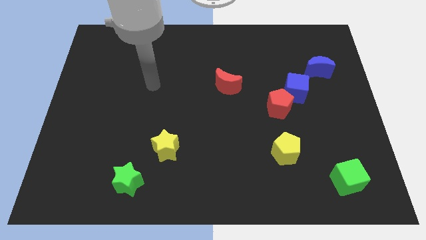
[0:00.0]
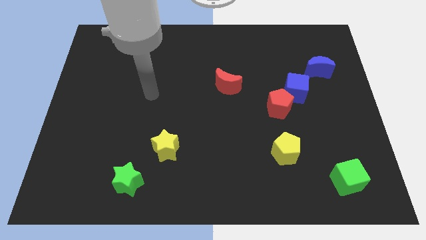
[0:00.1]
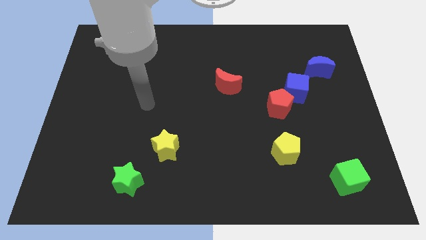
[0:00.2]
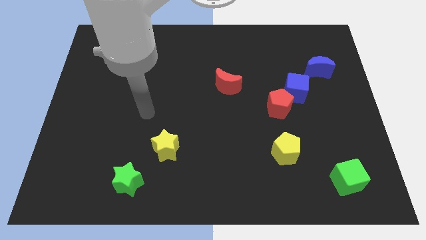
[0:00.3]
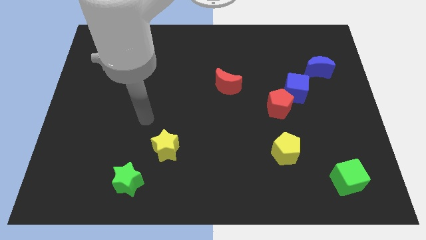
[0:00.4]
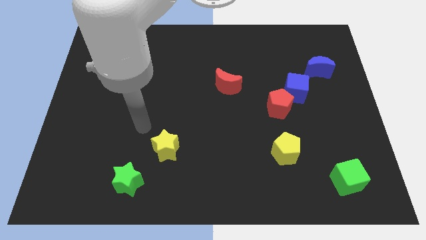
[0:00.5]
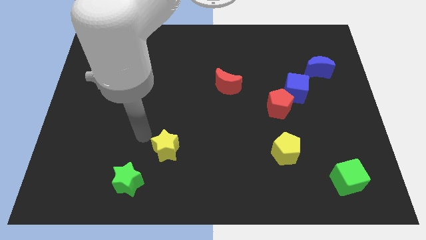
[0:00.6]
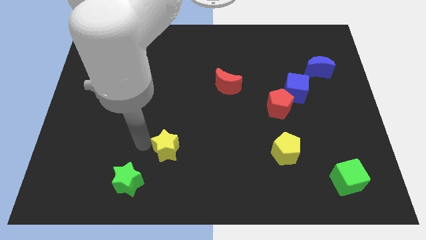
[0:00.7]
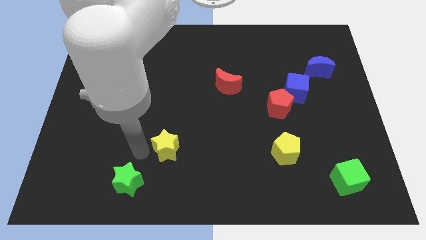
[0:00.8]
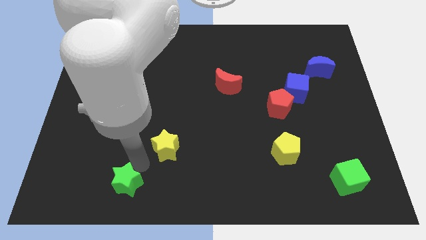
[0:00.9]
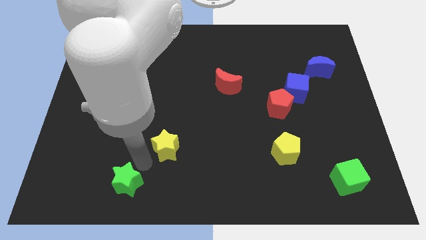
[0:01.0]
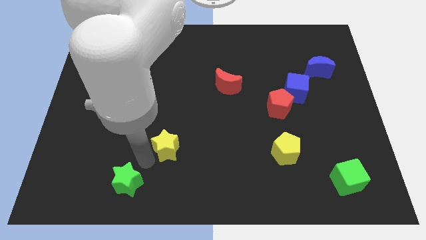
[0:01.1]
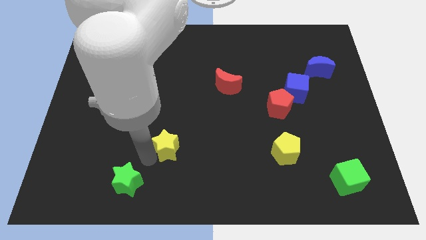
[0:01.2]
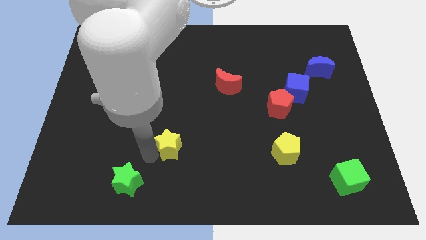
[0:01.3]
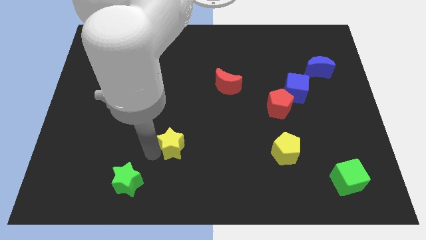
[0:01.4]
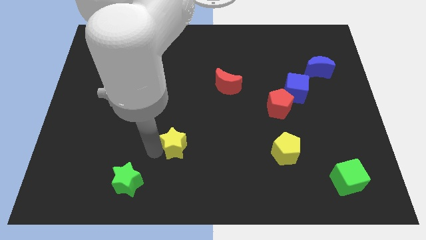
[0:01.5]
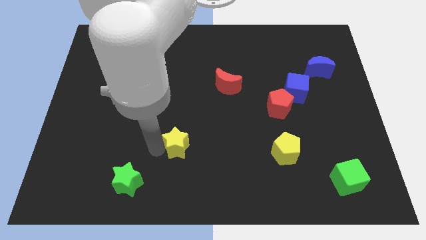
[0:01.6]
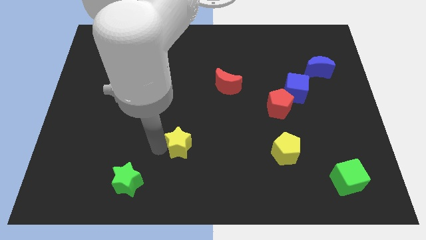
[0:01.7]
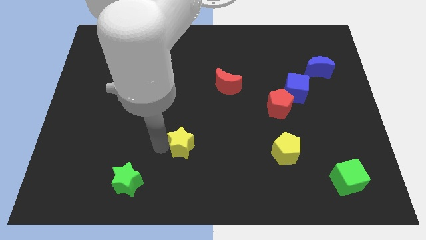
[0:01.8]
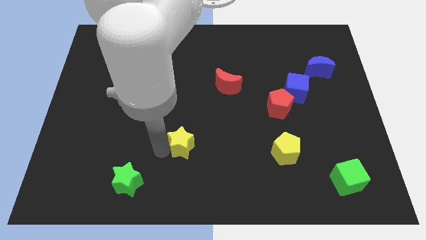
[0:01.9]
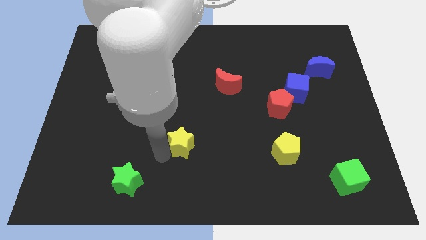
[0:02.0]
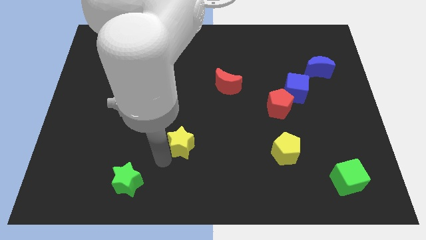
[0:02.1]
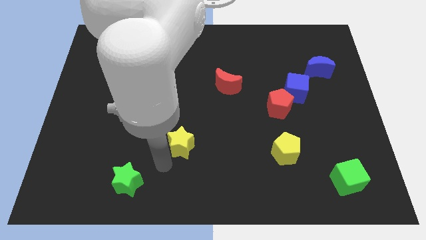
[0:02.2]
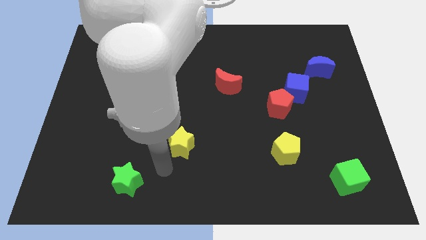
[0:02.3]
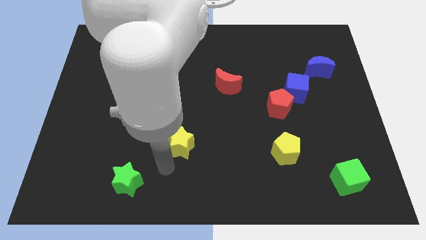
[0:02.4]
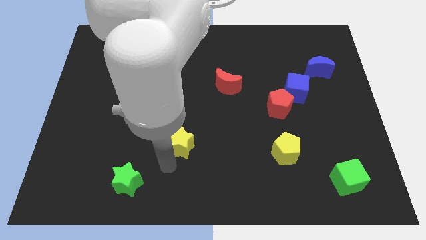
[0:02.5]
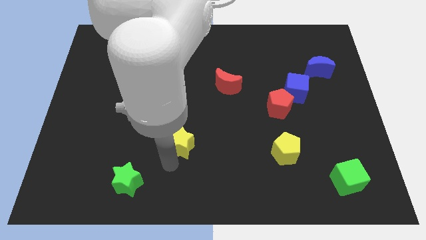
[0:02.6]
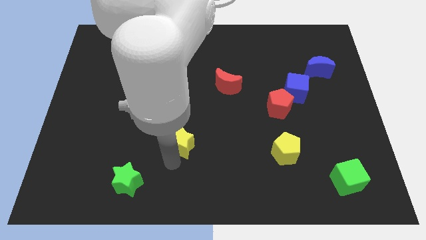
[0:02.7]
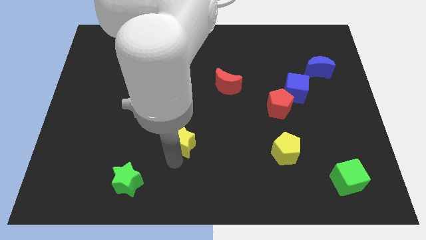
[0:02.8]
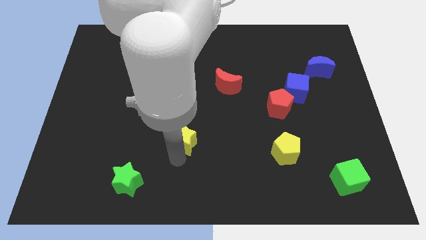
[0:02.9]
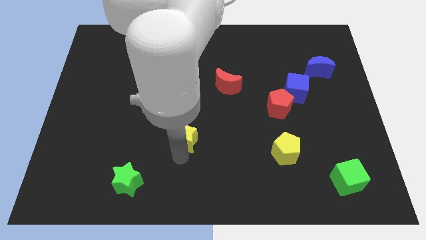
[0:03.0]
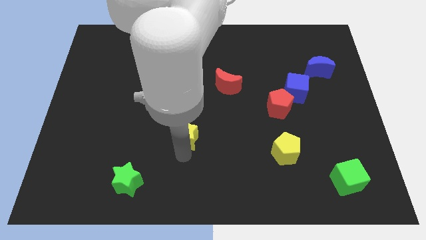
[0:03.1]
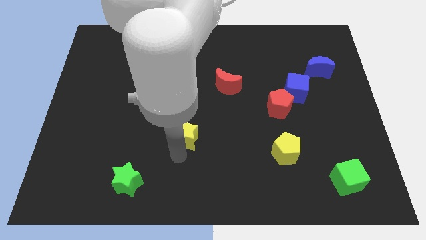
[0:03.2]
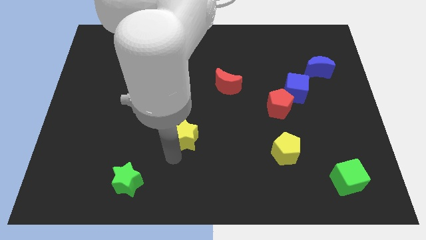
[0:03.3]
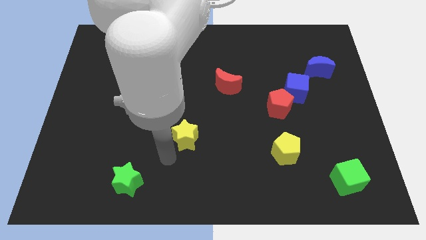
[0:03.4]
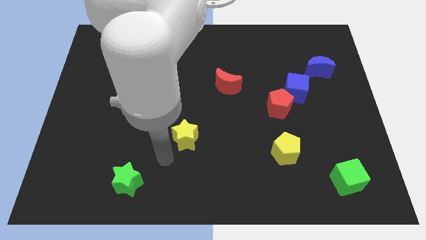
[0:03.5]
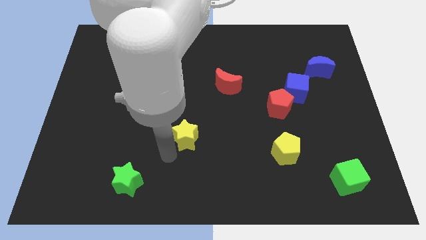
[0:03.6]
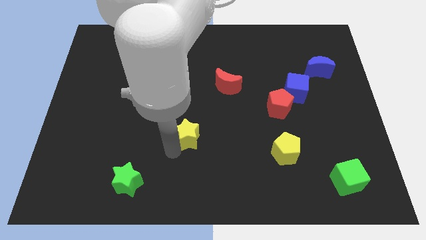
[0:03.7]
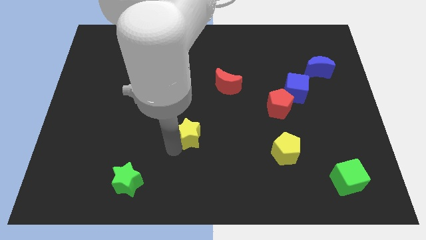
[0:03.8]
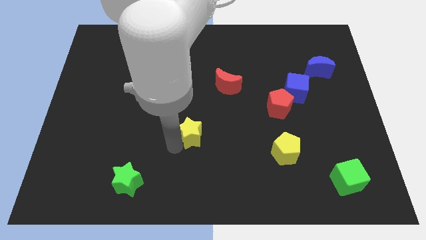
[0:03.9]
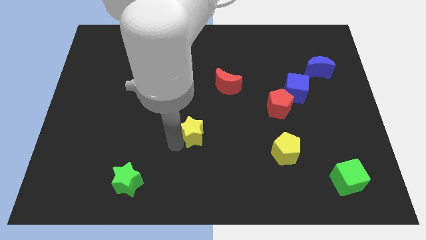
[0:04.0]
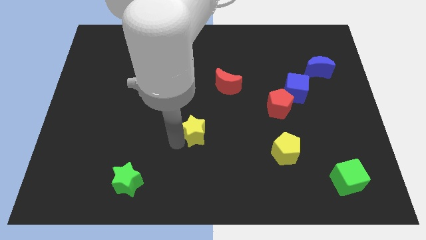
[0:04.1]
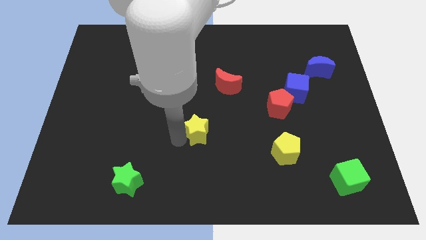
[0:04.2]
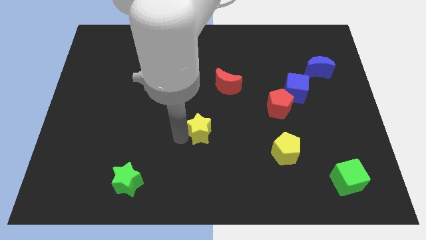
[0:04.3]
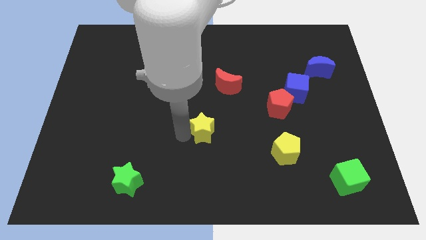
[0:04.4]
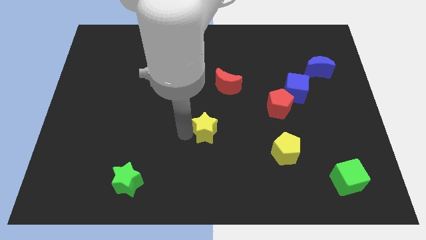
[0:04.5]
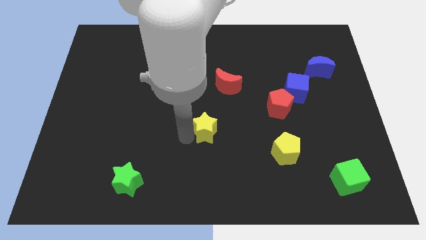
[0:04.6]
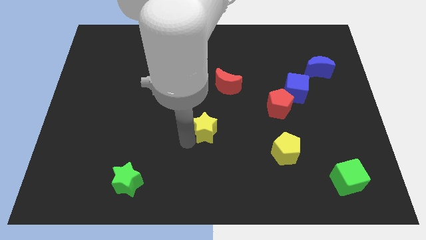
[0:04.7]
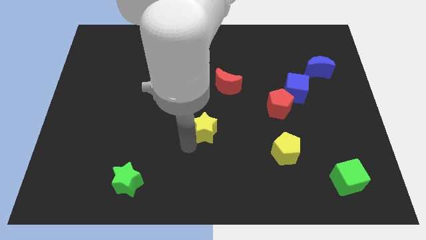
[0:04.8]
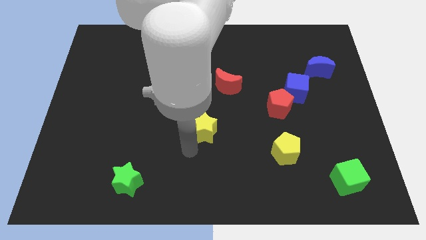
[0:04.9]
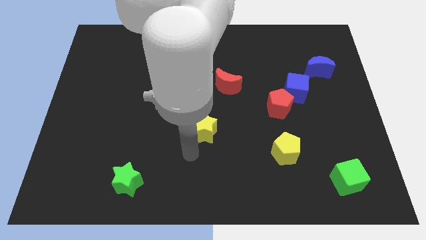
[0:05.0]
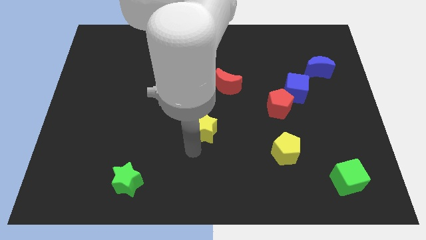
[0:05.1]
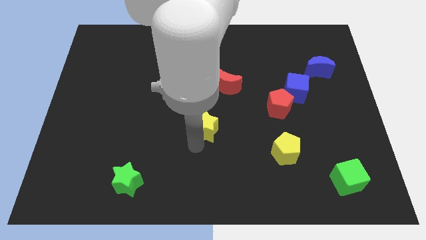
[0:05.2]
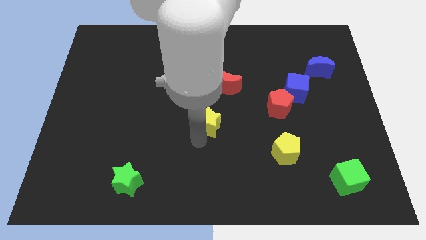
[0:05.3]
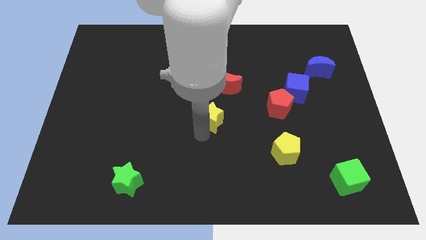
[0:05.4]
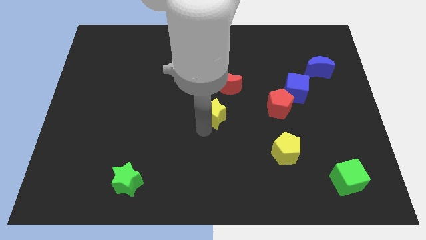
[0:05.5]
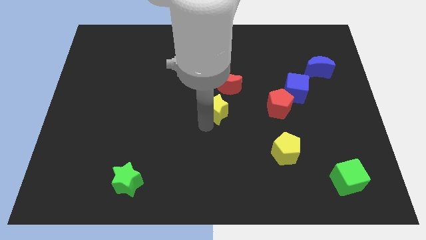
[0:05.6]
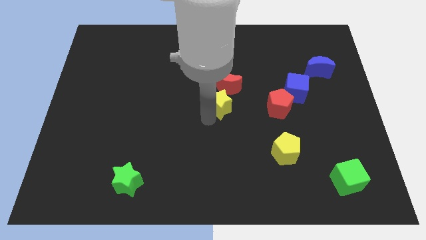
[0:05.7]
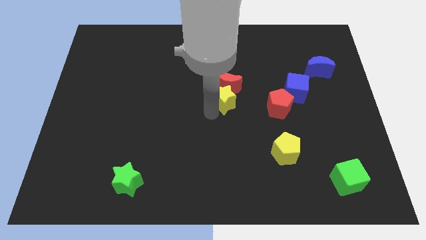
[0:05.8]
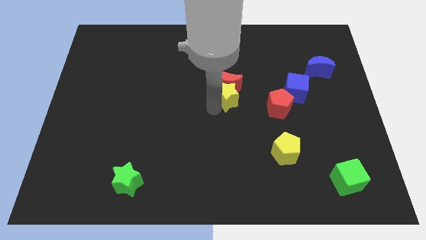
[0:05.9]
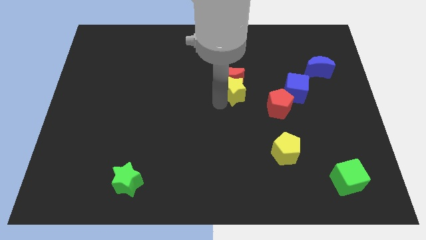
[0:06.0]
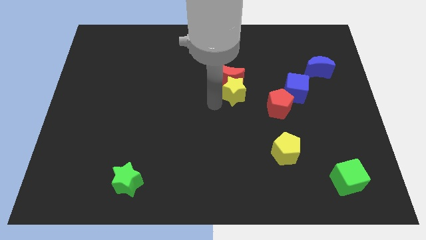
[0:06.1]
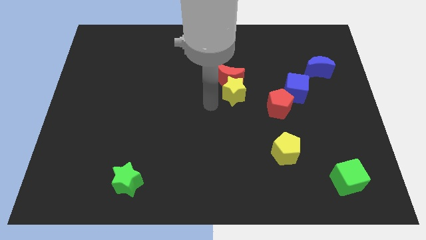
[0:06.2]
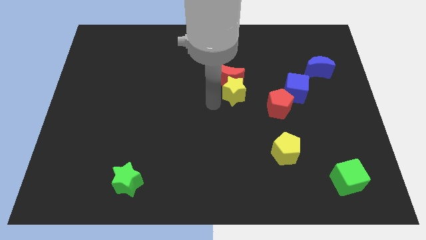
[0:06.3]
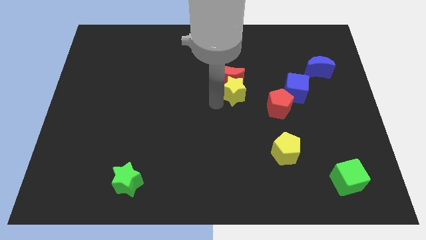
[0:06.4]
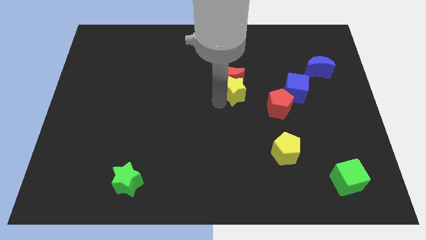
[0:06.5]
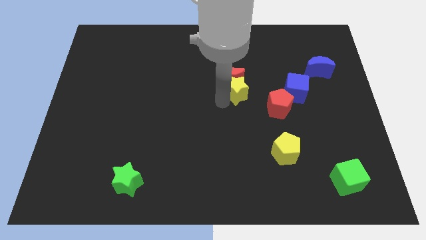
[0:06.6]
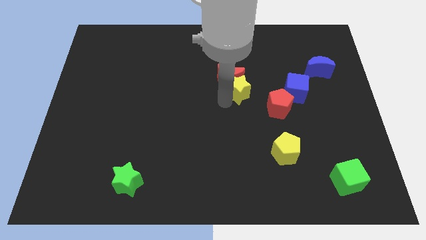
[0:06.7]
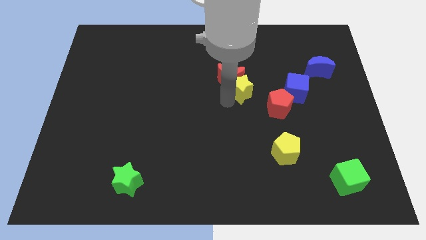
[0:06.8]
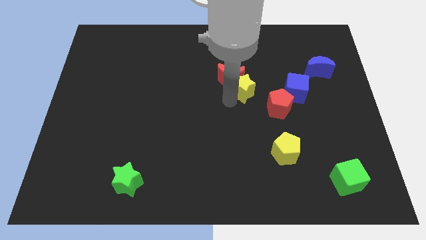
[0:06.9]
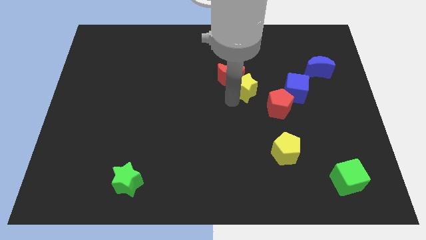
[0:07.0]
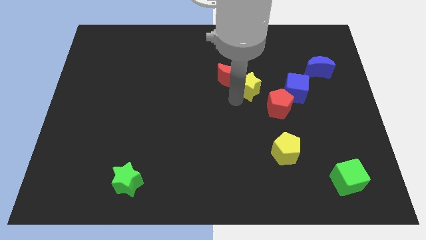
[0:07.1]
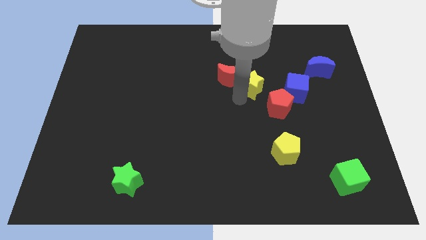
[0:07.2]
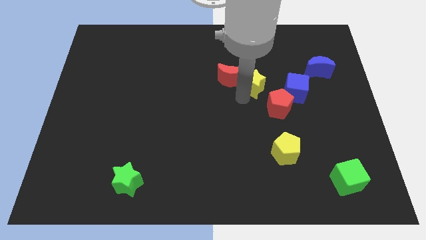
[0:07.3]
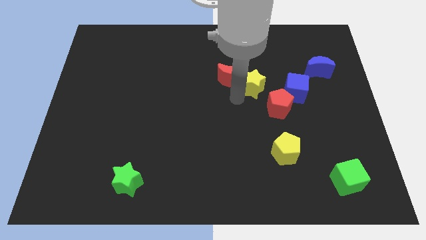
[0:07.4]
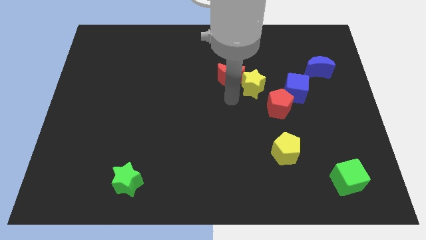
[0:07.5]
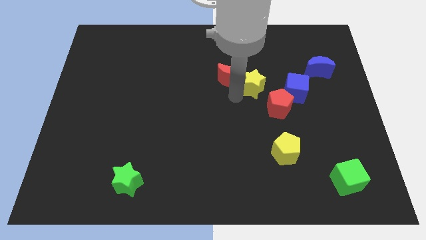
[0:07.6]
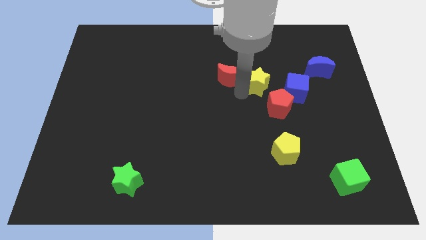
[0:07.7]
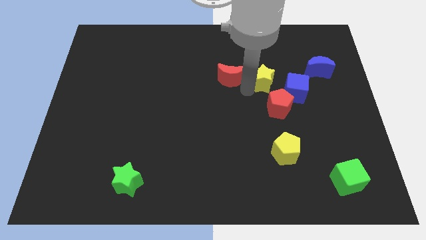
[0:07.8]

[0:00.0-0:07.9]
move the yellow star to the top left of the blue cube

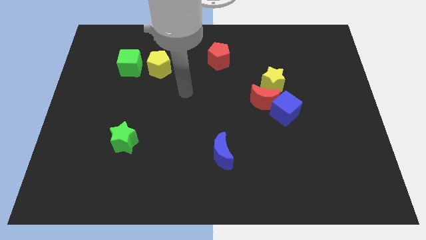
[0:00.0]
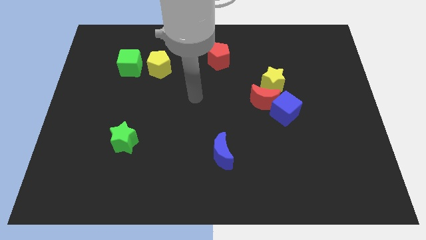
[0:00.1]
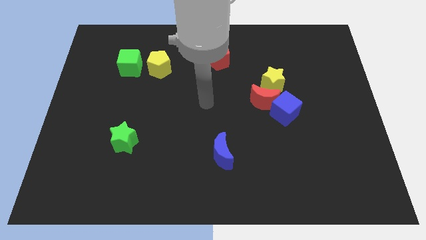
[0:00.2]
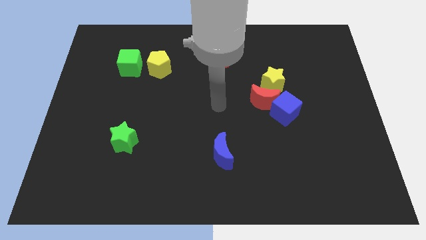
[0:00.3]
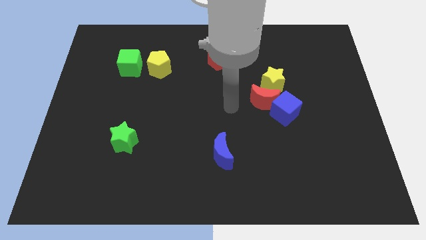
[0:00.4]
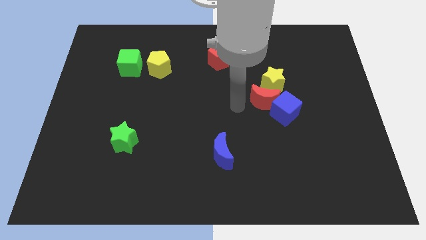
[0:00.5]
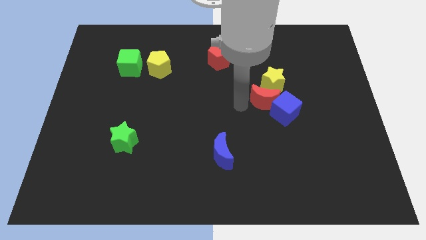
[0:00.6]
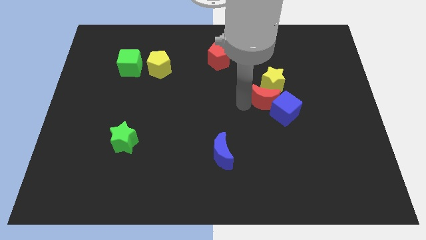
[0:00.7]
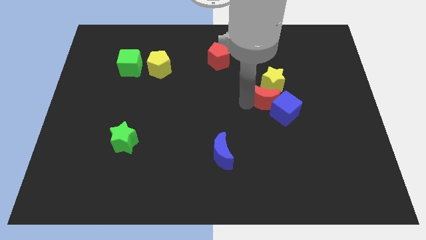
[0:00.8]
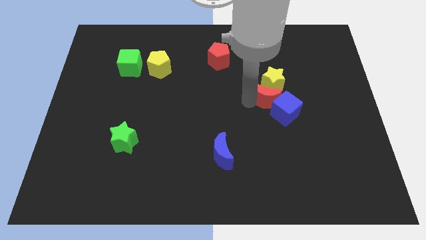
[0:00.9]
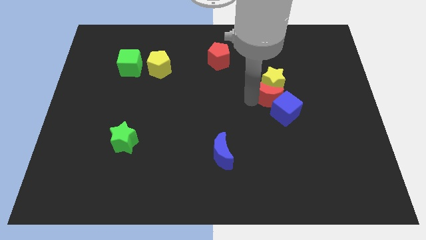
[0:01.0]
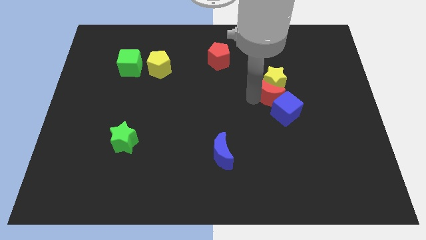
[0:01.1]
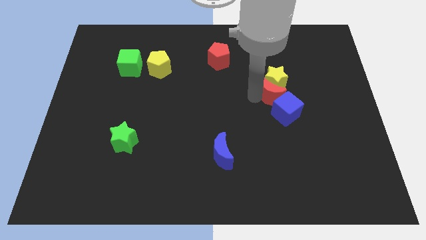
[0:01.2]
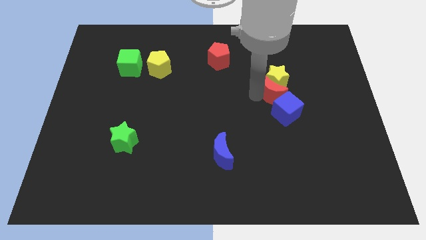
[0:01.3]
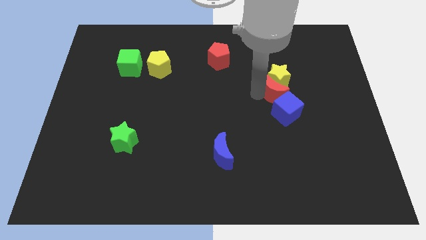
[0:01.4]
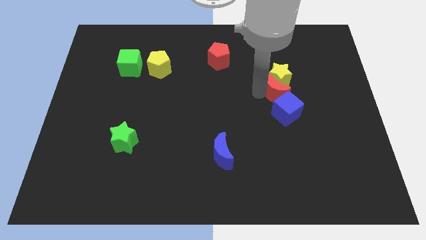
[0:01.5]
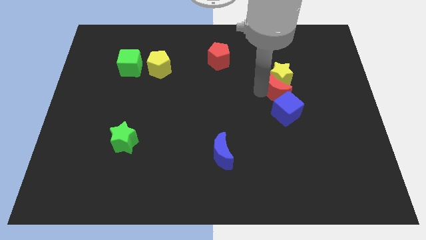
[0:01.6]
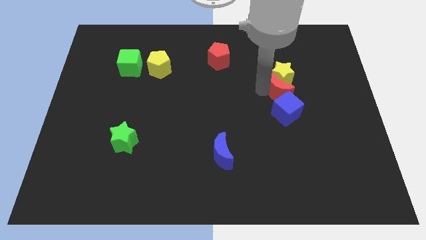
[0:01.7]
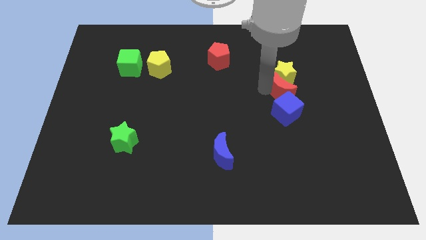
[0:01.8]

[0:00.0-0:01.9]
move the red moon to the top right of the blue cube
